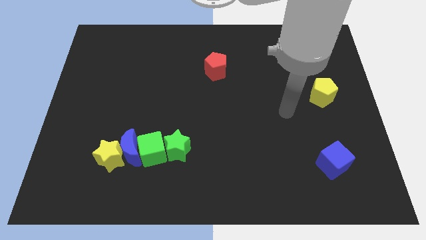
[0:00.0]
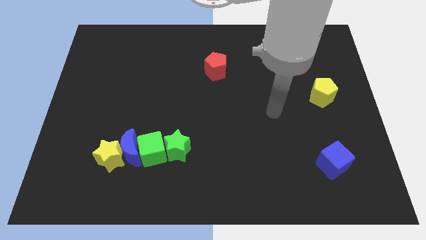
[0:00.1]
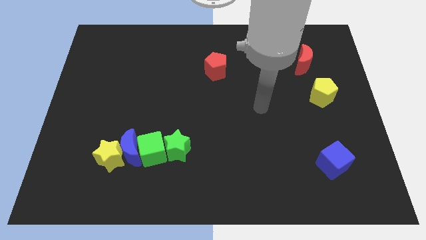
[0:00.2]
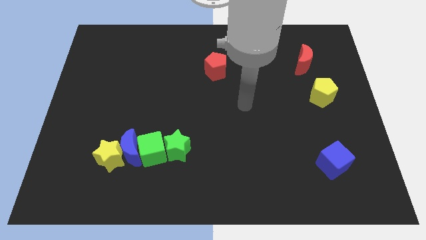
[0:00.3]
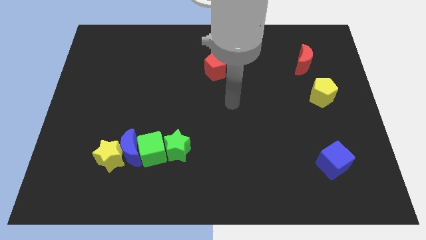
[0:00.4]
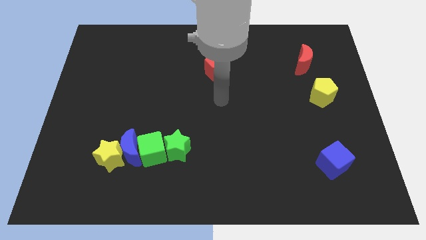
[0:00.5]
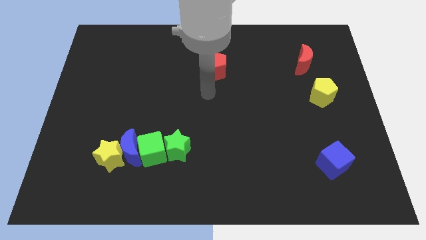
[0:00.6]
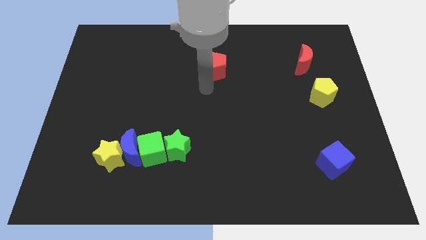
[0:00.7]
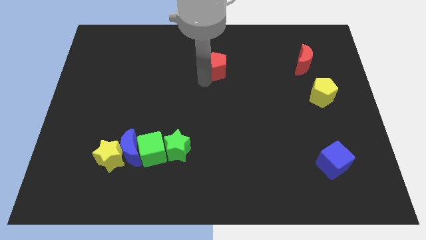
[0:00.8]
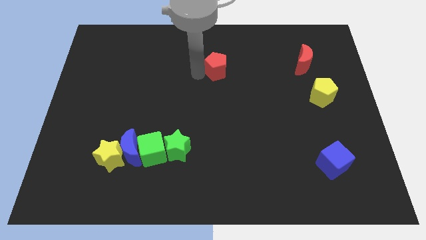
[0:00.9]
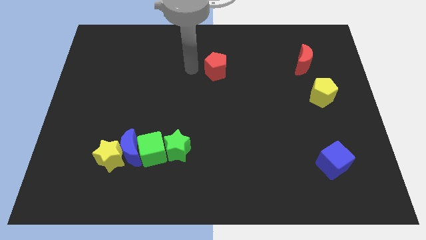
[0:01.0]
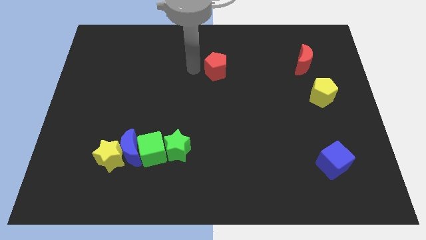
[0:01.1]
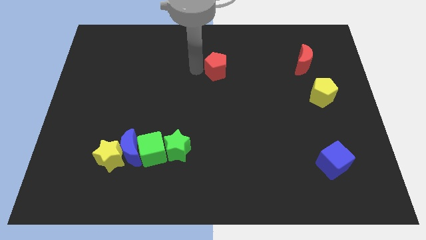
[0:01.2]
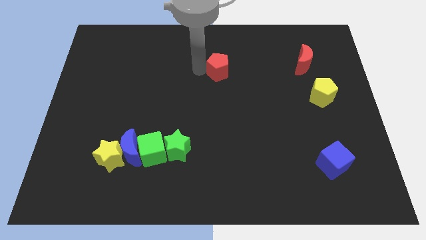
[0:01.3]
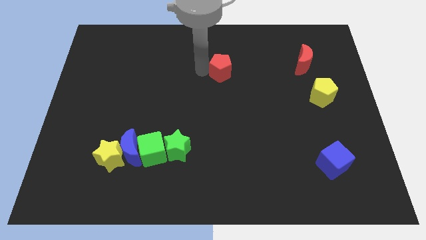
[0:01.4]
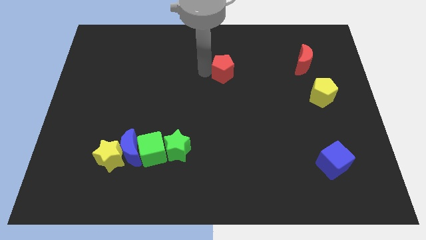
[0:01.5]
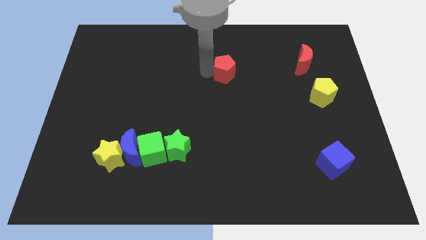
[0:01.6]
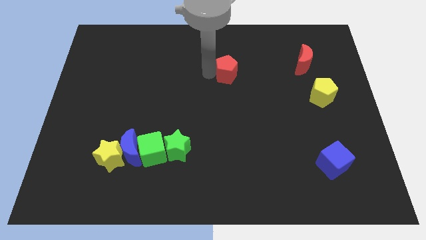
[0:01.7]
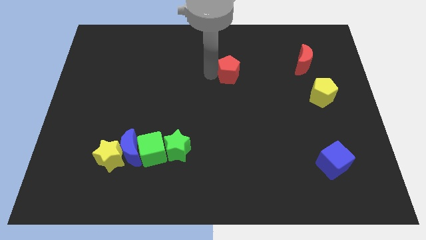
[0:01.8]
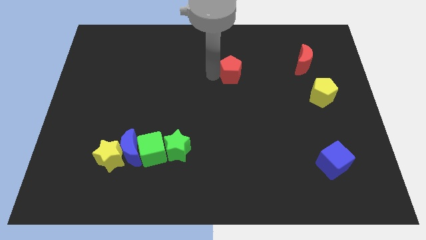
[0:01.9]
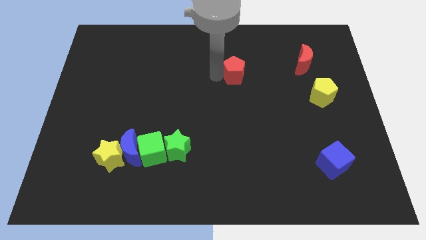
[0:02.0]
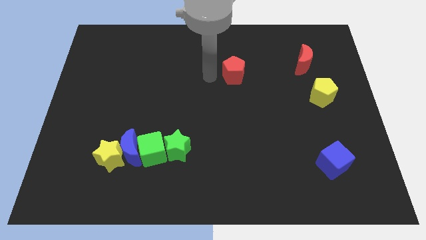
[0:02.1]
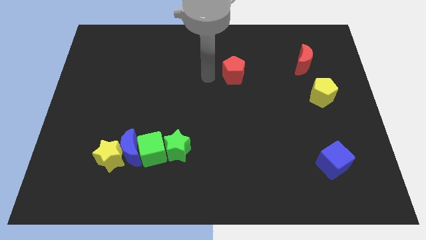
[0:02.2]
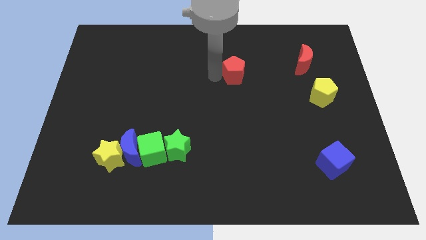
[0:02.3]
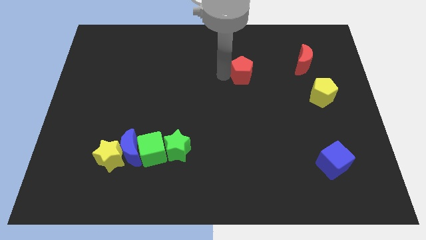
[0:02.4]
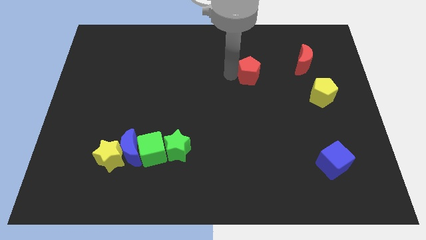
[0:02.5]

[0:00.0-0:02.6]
slightly push the red pentagon right

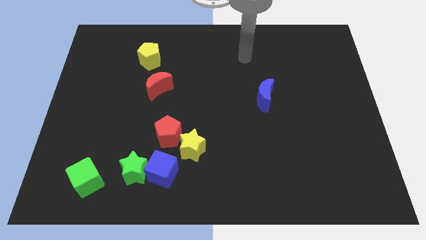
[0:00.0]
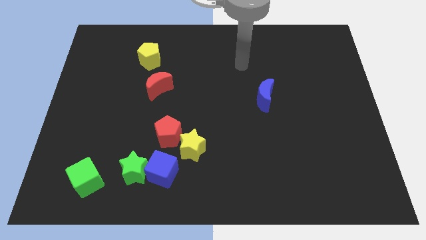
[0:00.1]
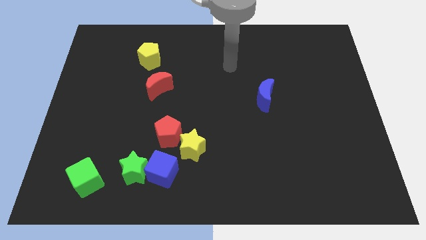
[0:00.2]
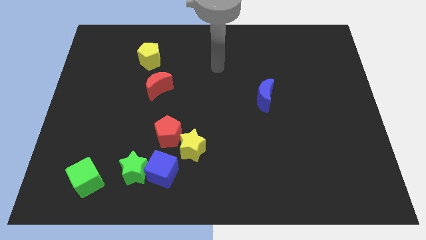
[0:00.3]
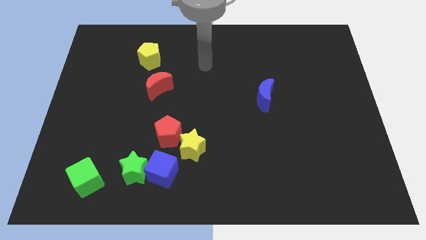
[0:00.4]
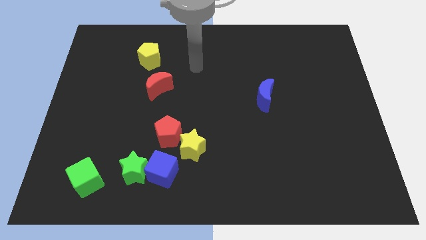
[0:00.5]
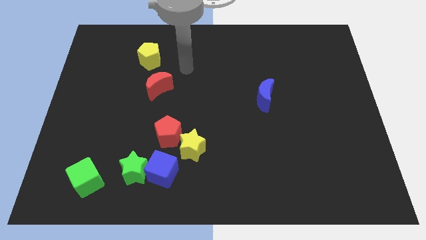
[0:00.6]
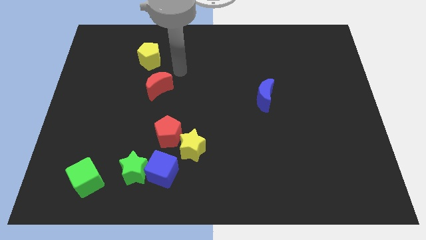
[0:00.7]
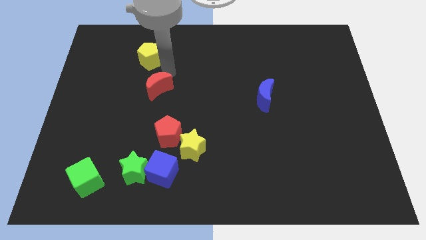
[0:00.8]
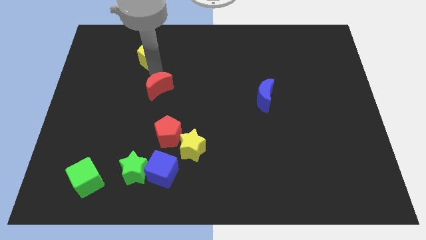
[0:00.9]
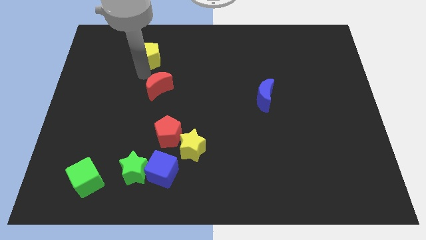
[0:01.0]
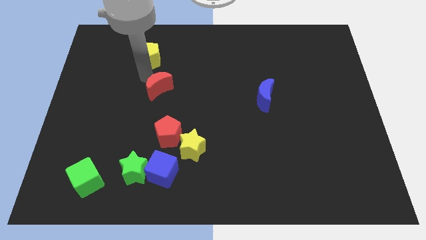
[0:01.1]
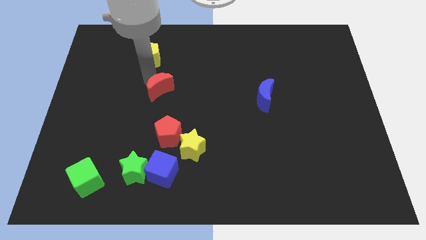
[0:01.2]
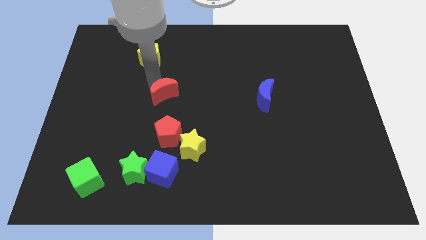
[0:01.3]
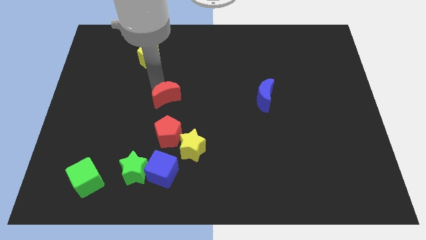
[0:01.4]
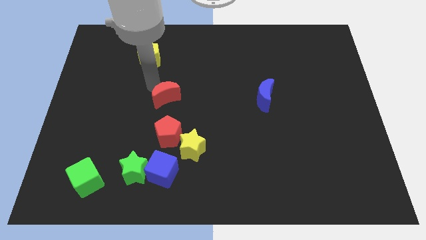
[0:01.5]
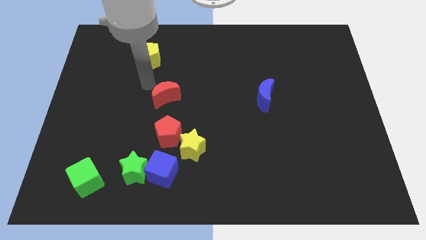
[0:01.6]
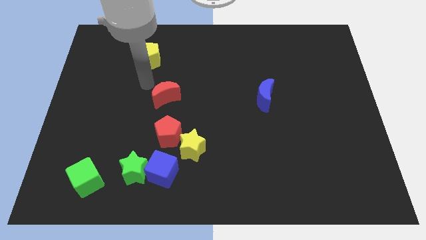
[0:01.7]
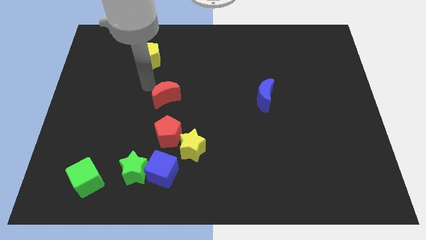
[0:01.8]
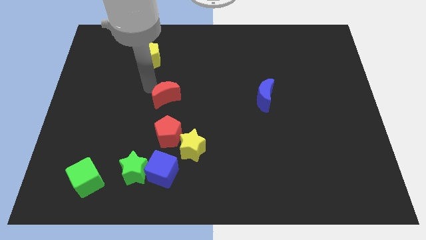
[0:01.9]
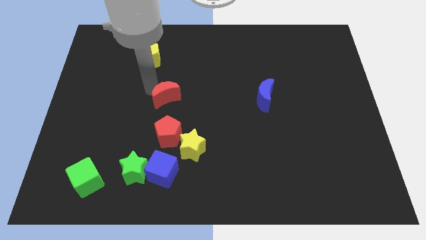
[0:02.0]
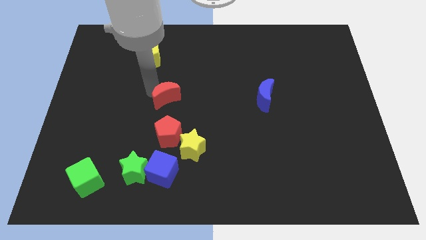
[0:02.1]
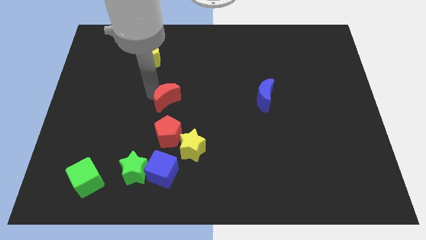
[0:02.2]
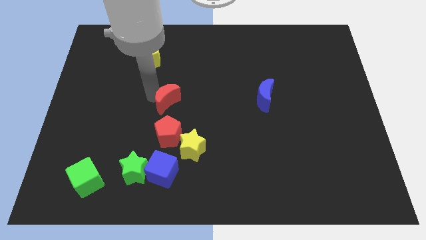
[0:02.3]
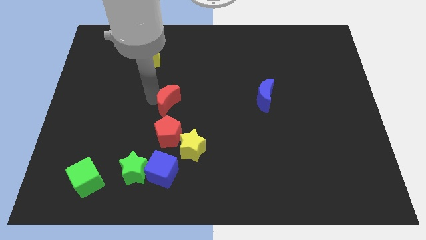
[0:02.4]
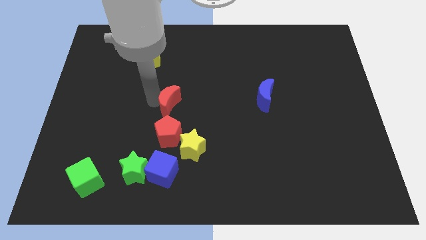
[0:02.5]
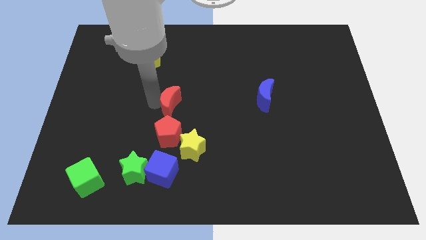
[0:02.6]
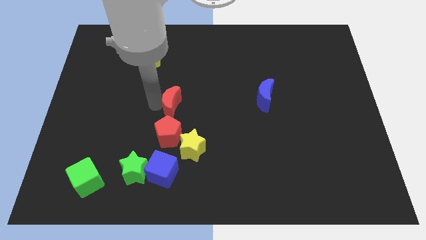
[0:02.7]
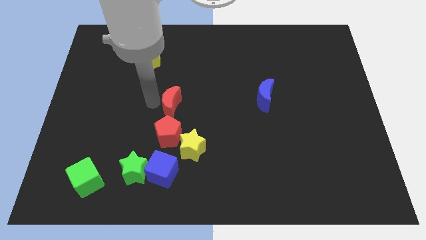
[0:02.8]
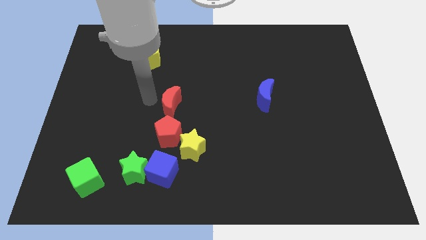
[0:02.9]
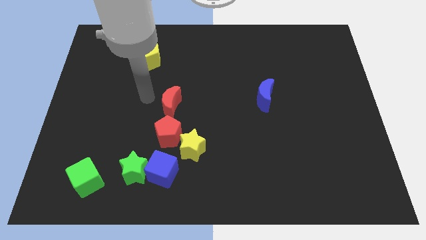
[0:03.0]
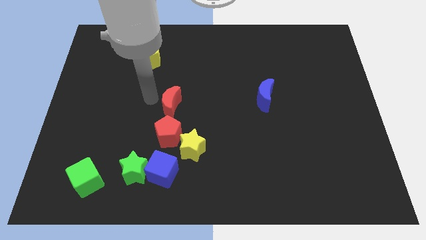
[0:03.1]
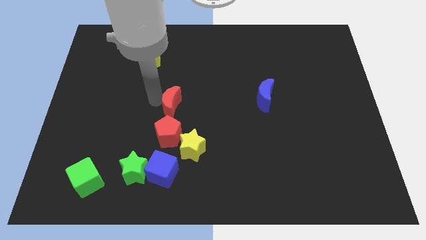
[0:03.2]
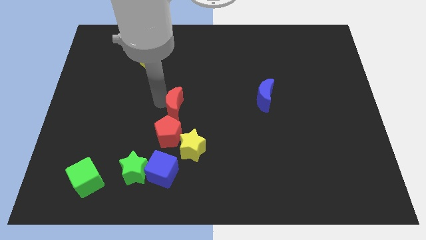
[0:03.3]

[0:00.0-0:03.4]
move the red moon a little bit down and then to the right

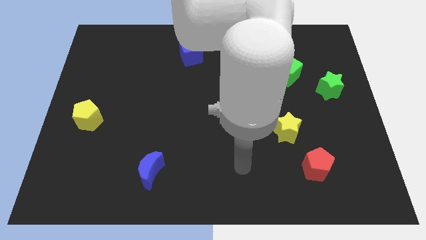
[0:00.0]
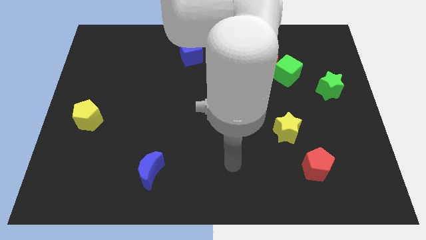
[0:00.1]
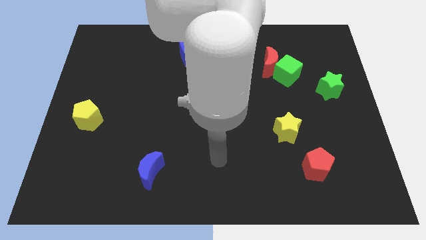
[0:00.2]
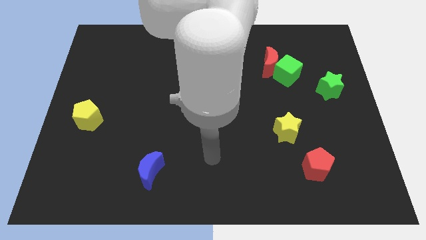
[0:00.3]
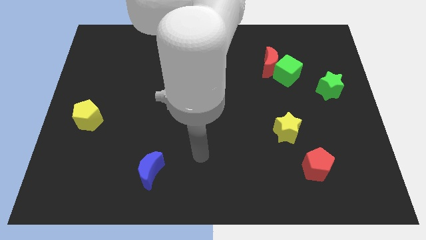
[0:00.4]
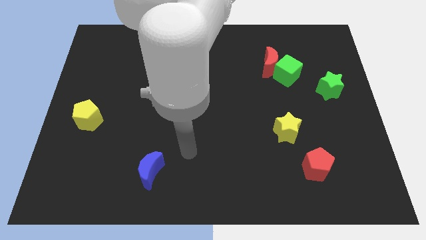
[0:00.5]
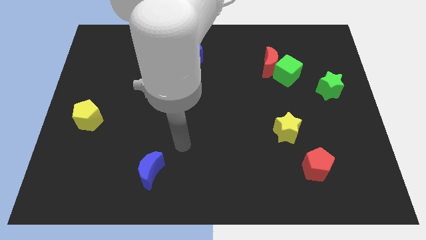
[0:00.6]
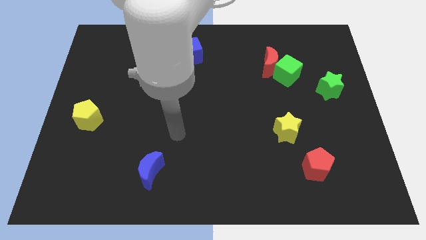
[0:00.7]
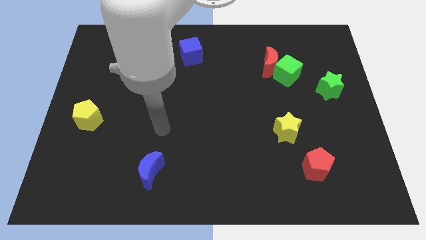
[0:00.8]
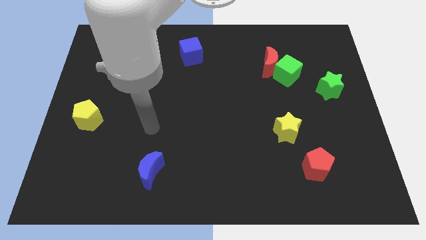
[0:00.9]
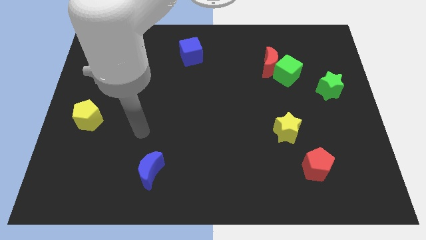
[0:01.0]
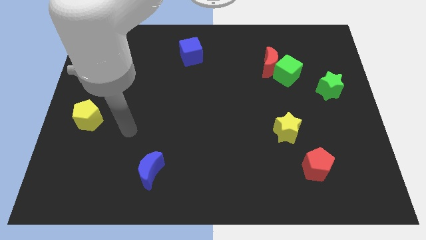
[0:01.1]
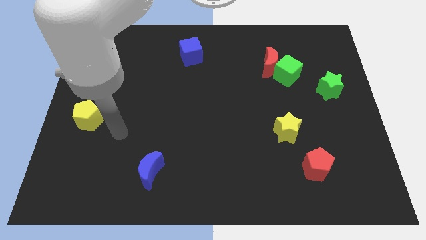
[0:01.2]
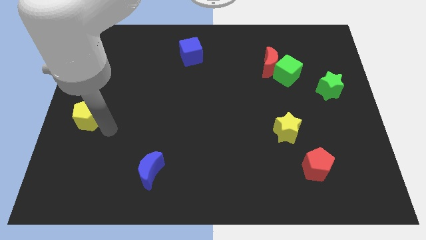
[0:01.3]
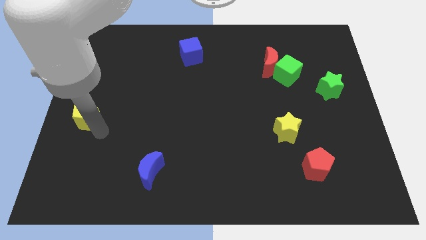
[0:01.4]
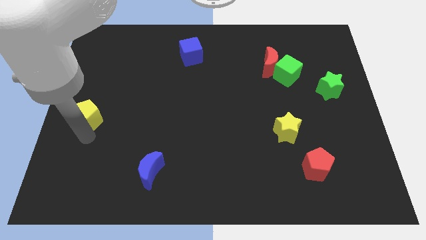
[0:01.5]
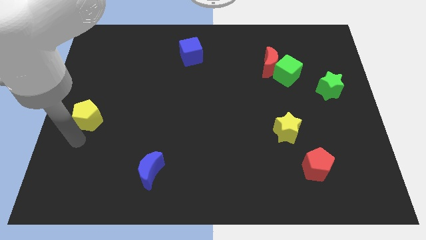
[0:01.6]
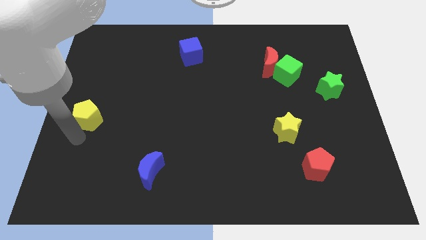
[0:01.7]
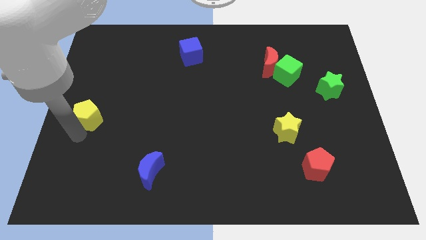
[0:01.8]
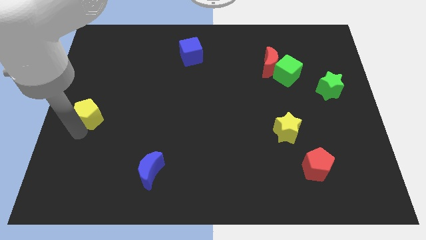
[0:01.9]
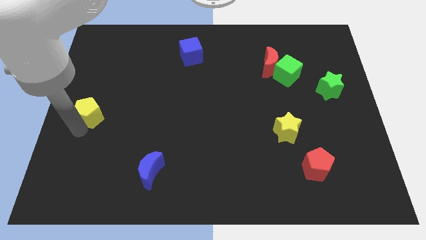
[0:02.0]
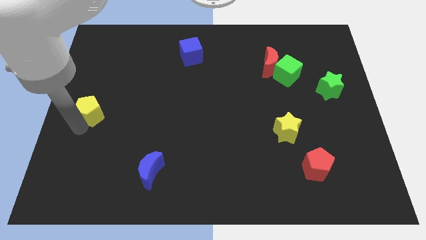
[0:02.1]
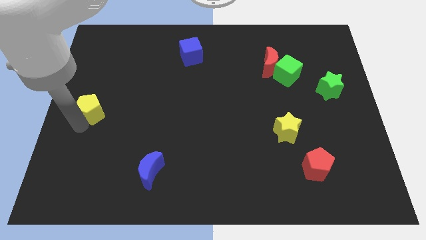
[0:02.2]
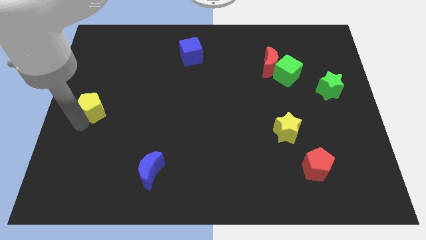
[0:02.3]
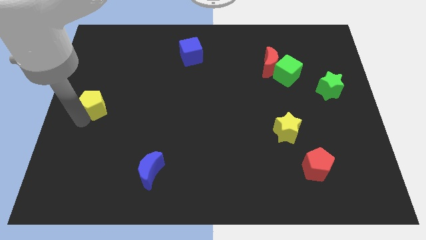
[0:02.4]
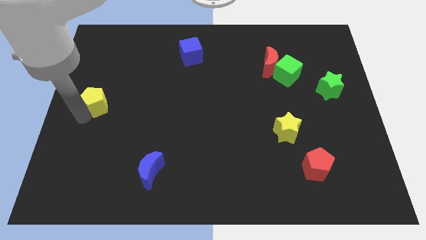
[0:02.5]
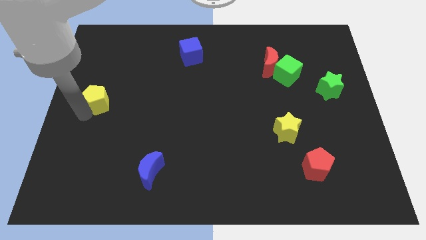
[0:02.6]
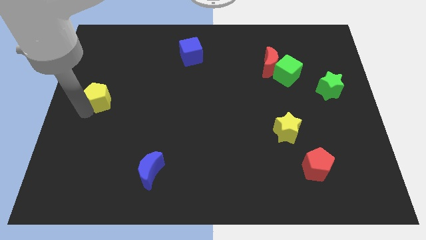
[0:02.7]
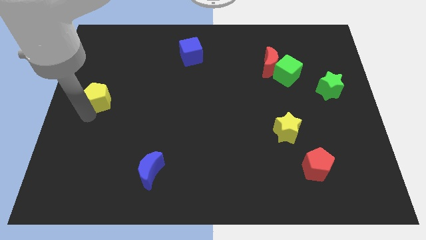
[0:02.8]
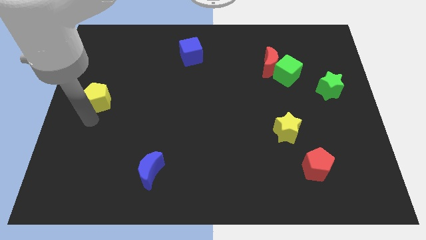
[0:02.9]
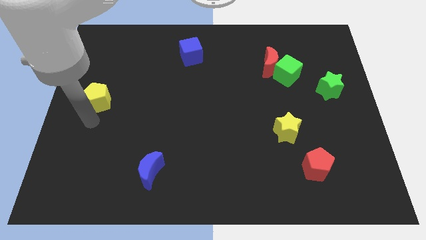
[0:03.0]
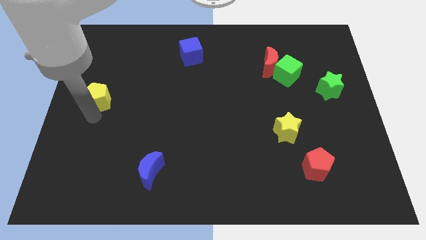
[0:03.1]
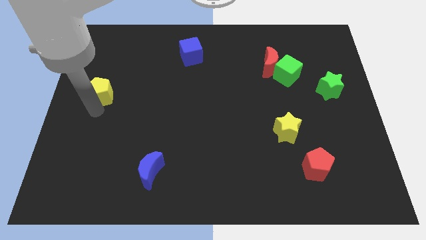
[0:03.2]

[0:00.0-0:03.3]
slide the yellow pentagon upwards a little bit
